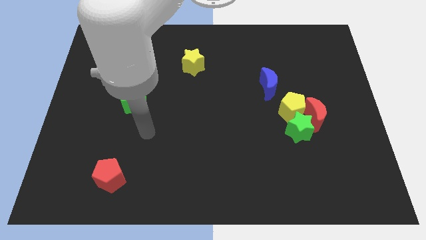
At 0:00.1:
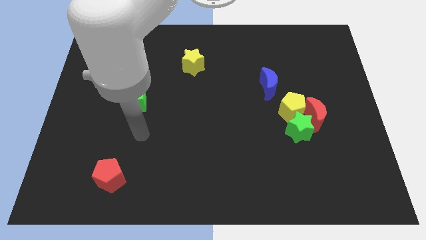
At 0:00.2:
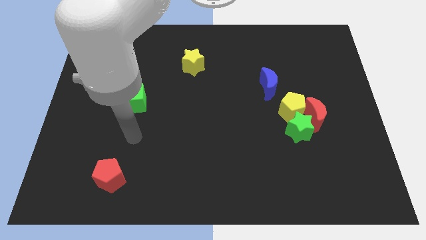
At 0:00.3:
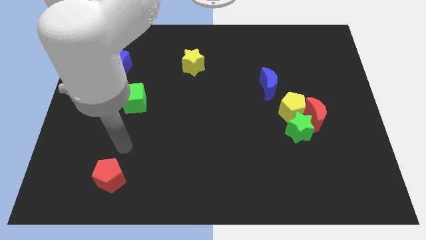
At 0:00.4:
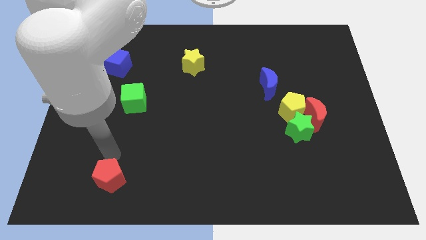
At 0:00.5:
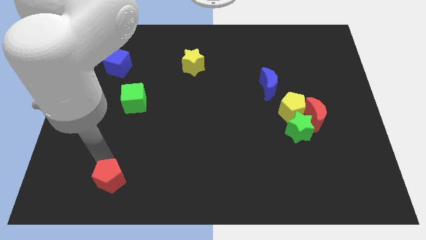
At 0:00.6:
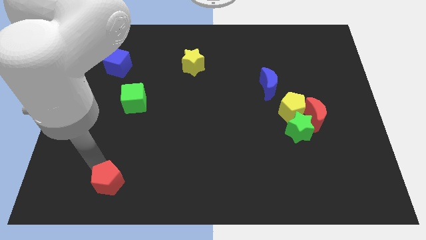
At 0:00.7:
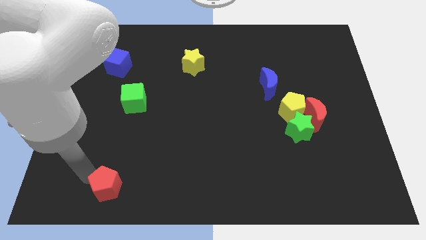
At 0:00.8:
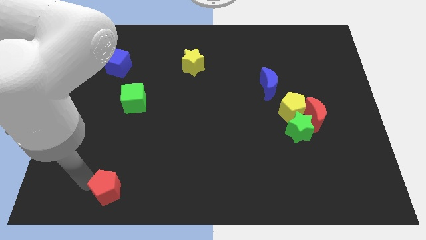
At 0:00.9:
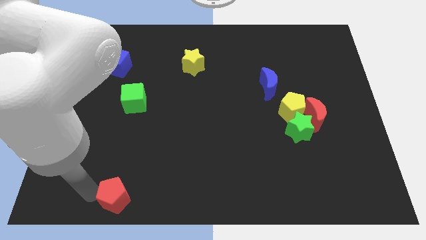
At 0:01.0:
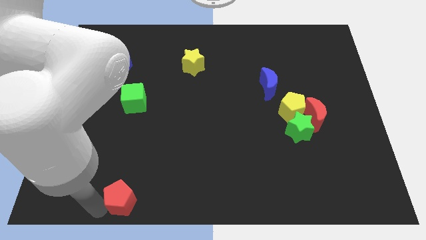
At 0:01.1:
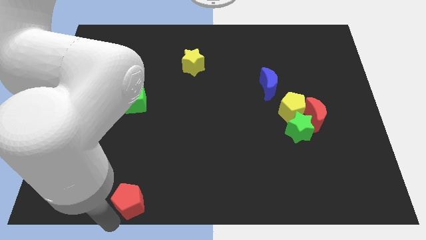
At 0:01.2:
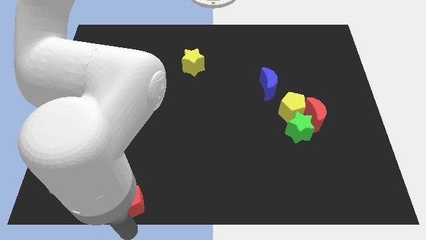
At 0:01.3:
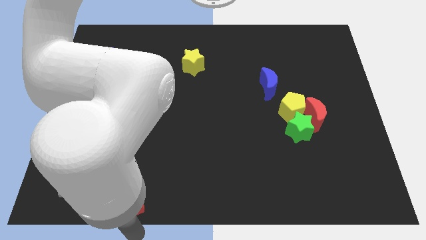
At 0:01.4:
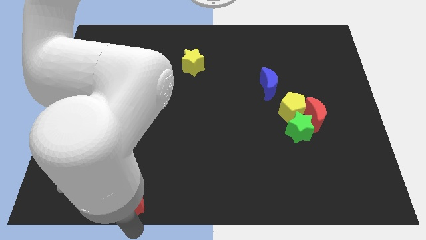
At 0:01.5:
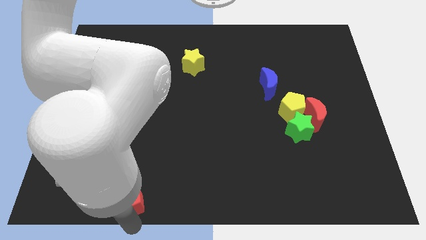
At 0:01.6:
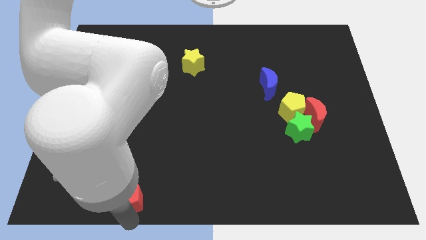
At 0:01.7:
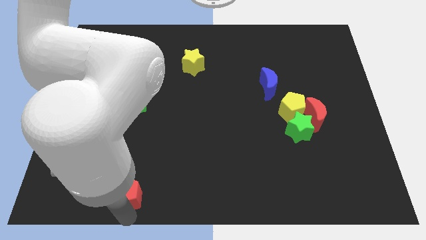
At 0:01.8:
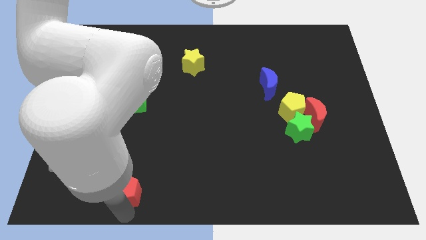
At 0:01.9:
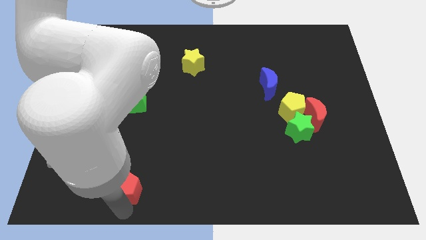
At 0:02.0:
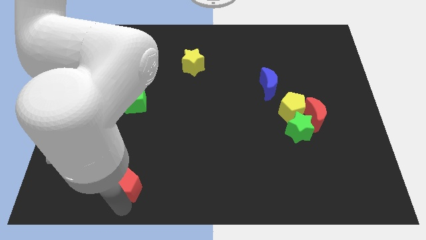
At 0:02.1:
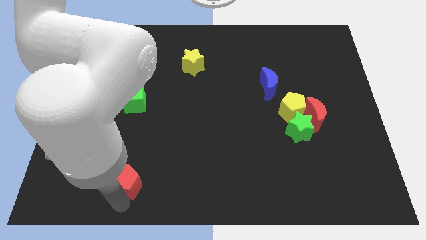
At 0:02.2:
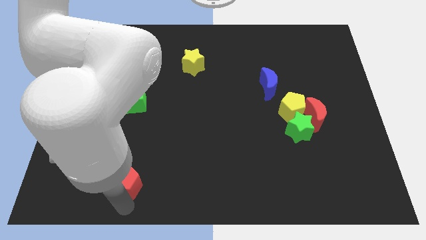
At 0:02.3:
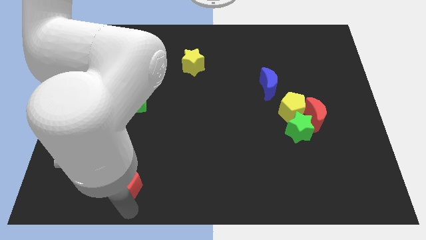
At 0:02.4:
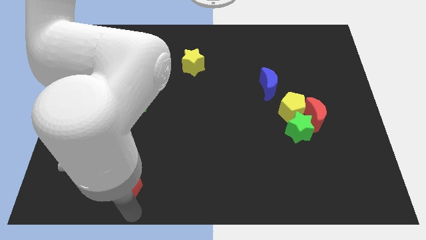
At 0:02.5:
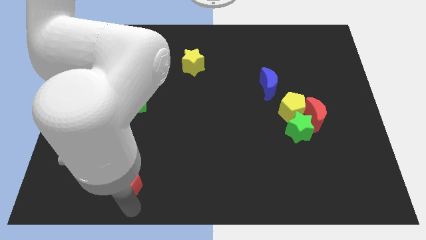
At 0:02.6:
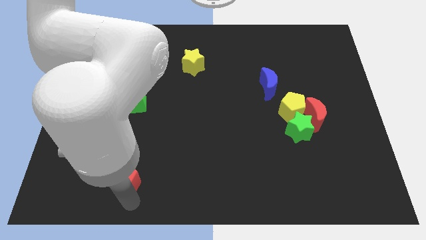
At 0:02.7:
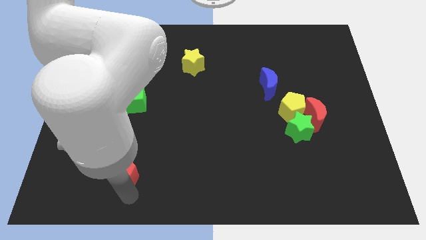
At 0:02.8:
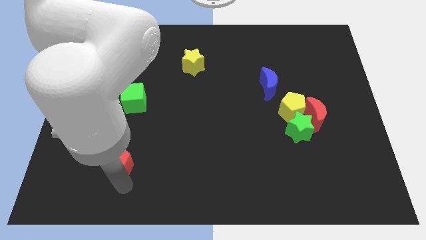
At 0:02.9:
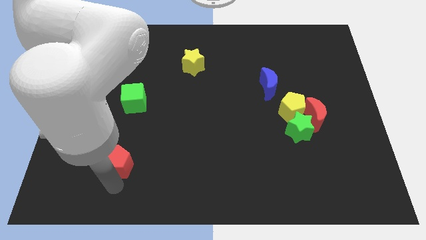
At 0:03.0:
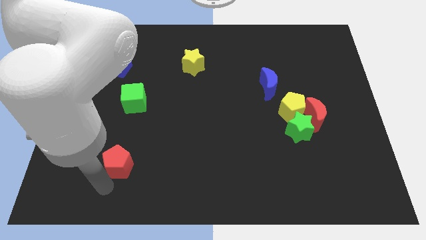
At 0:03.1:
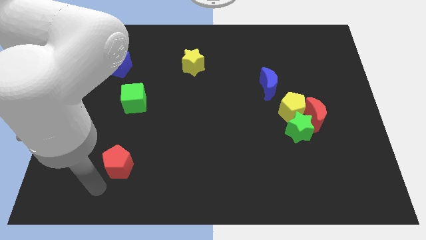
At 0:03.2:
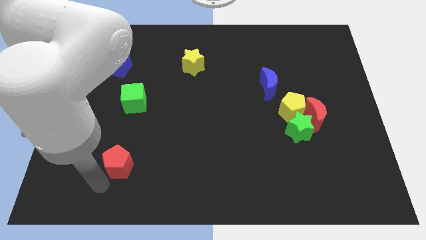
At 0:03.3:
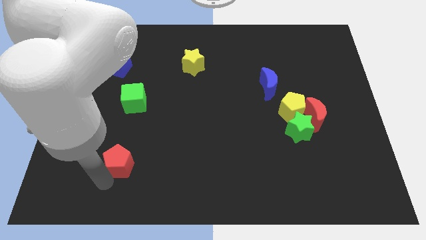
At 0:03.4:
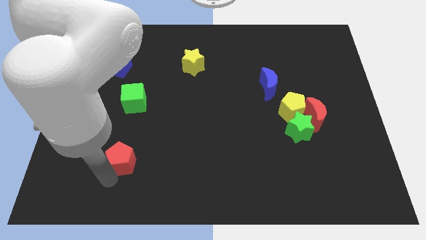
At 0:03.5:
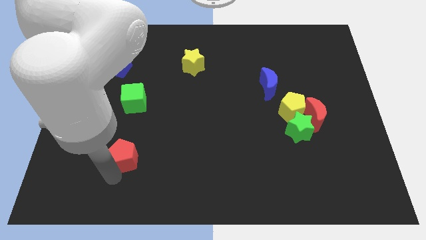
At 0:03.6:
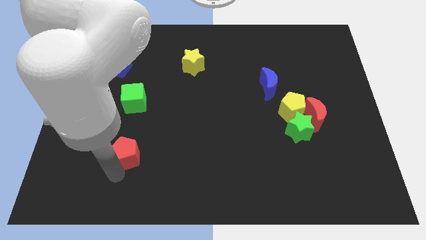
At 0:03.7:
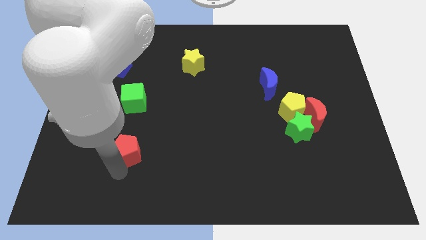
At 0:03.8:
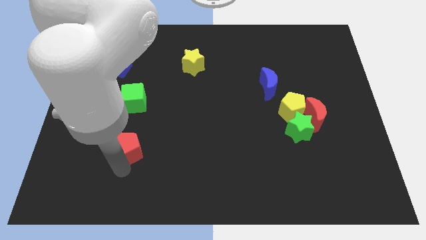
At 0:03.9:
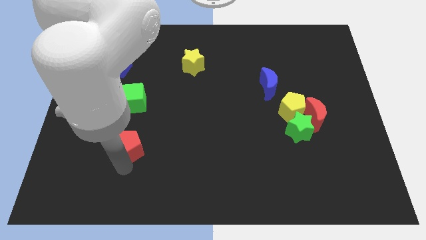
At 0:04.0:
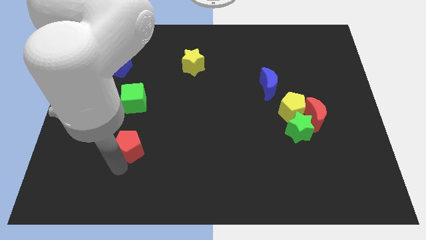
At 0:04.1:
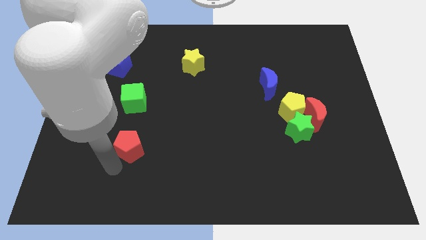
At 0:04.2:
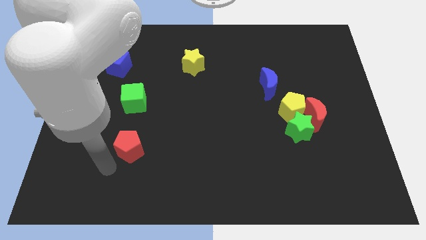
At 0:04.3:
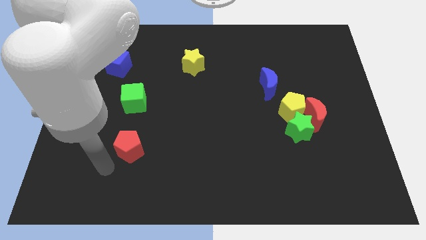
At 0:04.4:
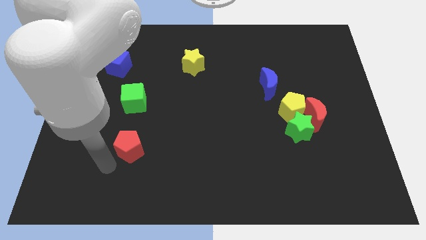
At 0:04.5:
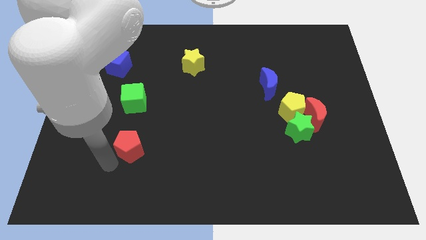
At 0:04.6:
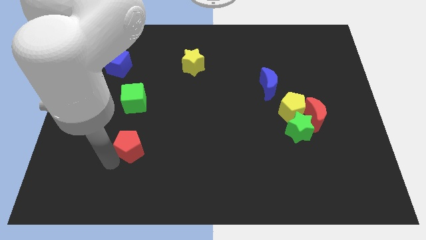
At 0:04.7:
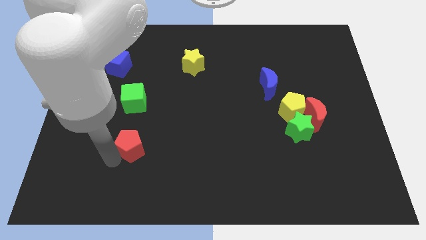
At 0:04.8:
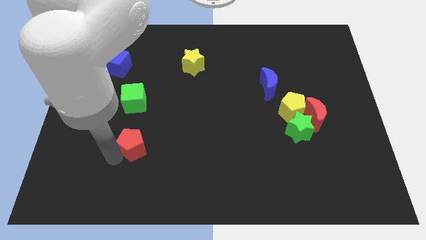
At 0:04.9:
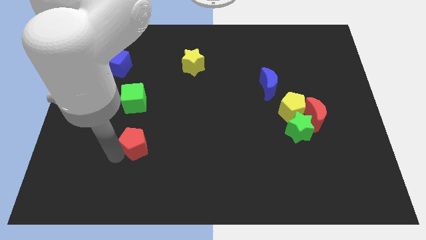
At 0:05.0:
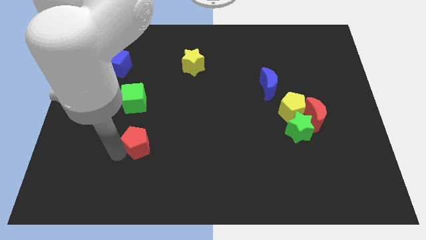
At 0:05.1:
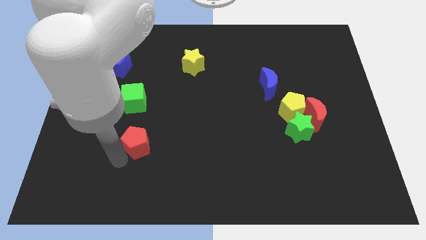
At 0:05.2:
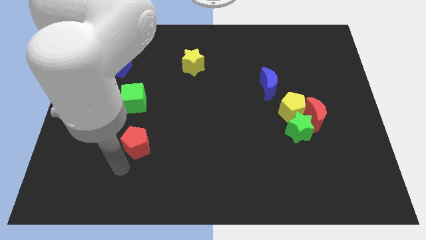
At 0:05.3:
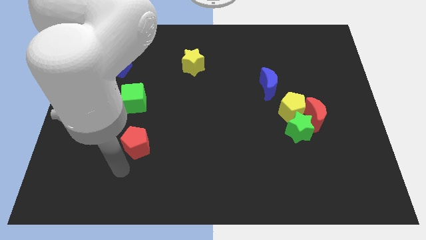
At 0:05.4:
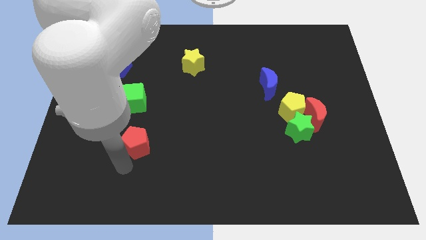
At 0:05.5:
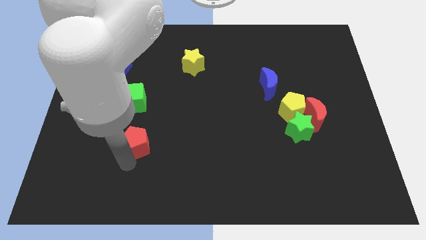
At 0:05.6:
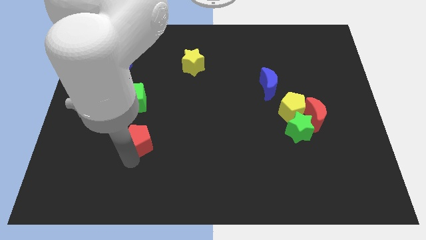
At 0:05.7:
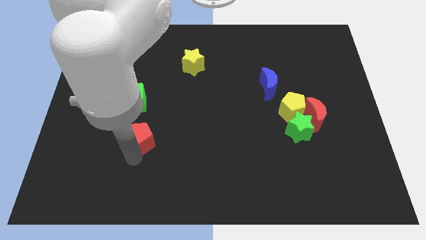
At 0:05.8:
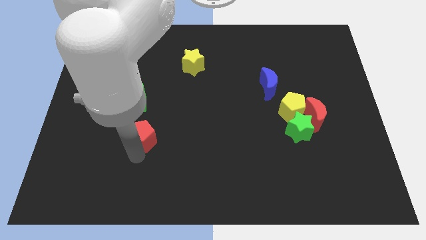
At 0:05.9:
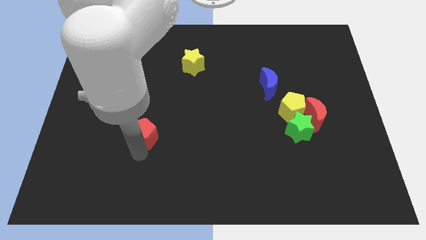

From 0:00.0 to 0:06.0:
move the red pentagon to the bottom right of the green cube

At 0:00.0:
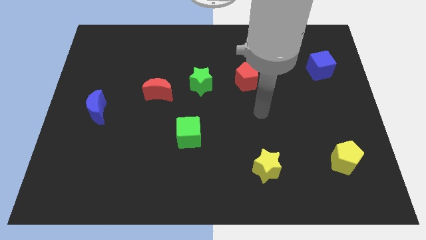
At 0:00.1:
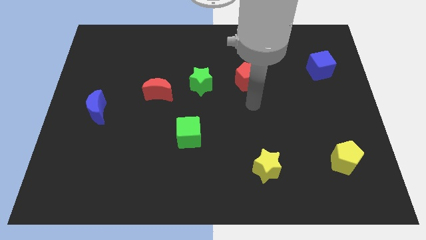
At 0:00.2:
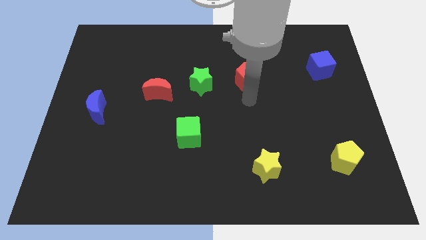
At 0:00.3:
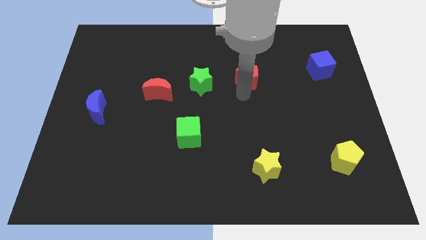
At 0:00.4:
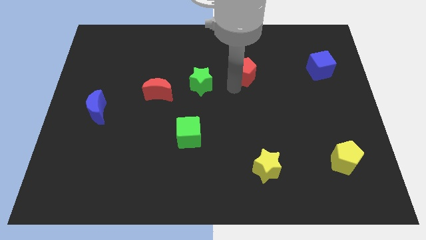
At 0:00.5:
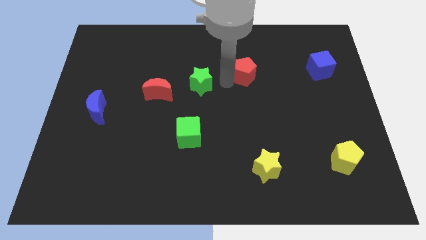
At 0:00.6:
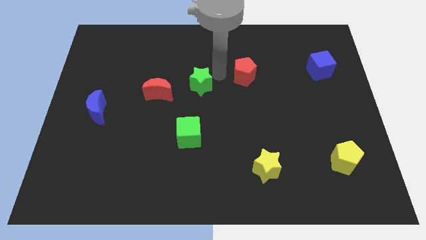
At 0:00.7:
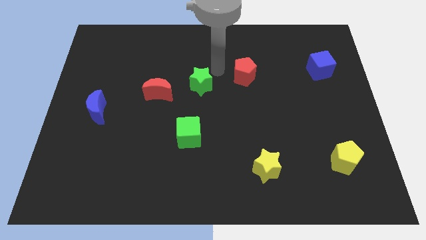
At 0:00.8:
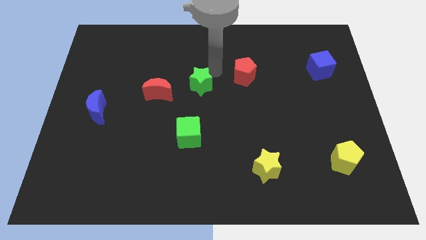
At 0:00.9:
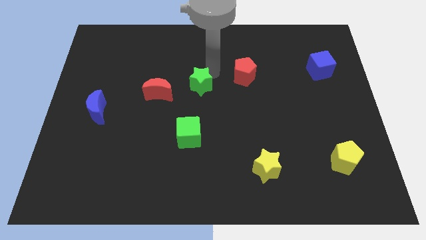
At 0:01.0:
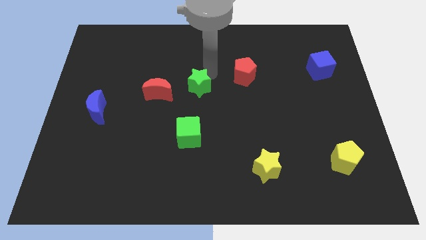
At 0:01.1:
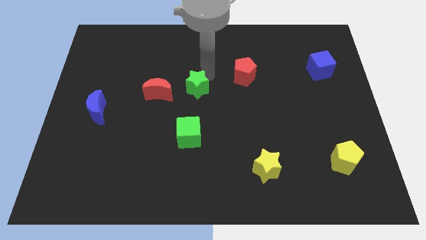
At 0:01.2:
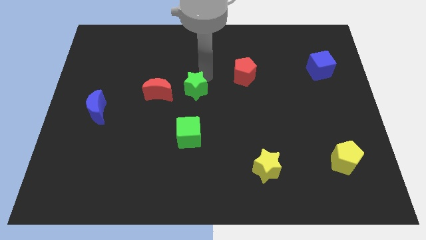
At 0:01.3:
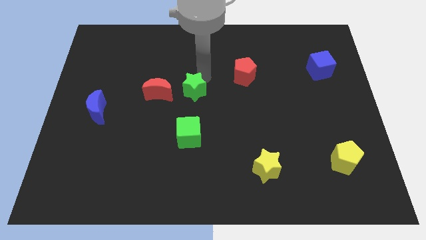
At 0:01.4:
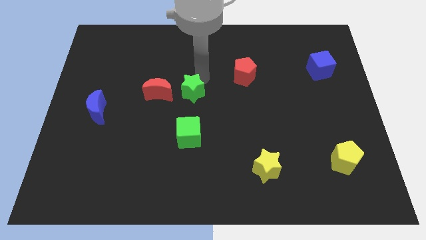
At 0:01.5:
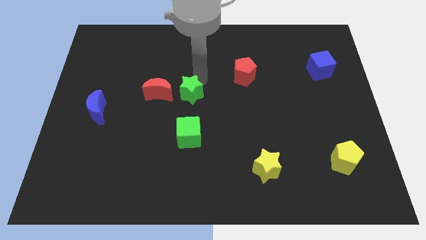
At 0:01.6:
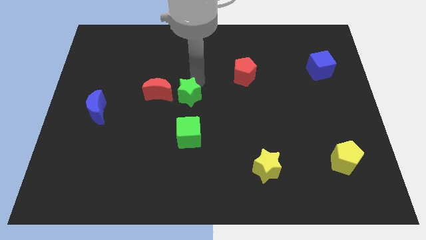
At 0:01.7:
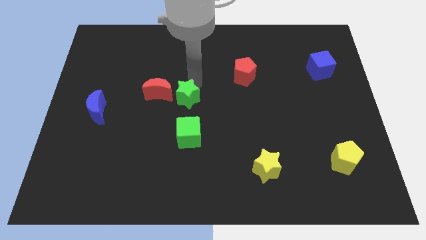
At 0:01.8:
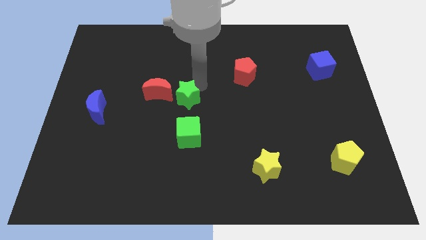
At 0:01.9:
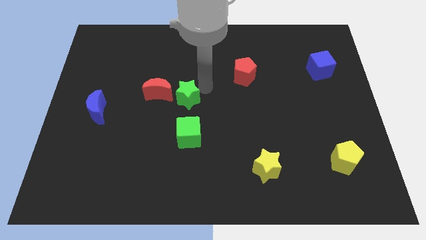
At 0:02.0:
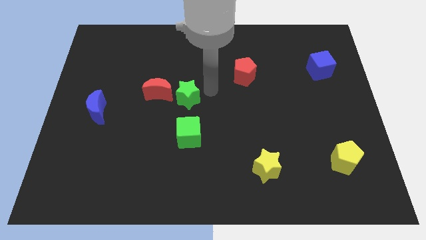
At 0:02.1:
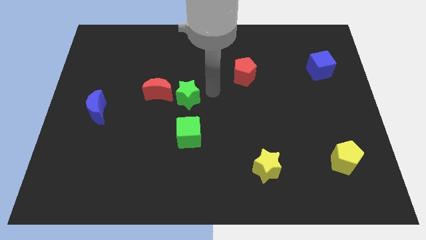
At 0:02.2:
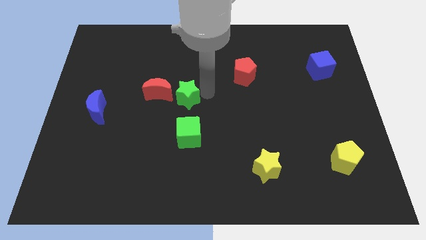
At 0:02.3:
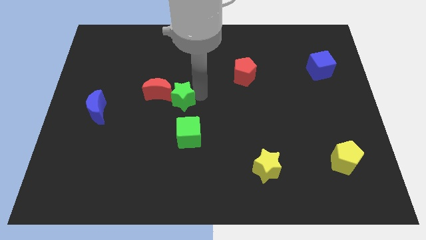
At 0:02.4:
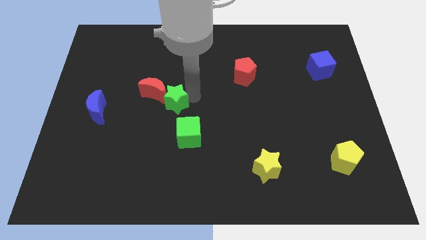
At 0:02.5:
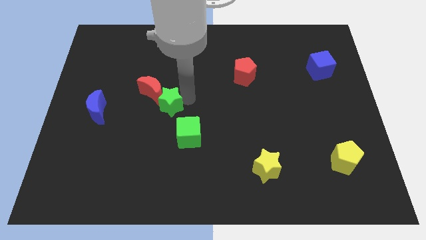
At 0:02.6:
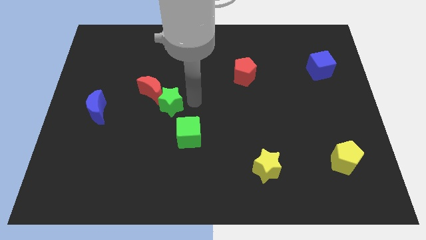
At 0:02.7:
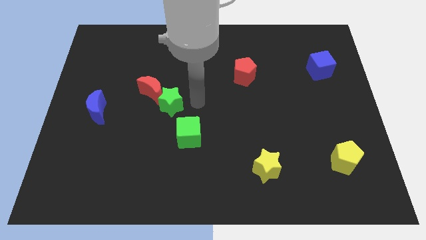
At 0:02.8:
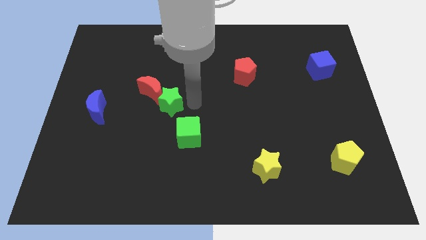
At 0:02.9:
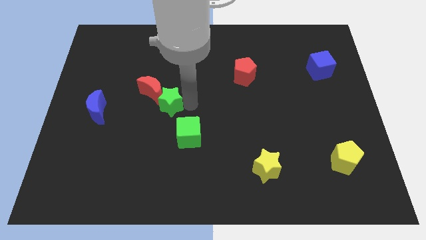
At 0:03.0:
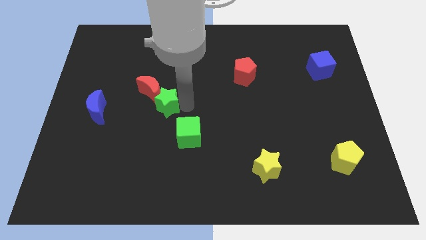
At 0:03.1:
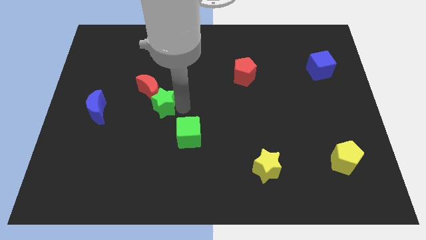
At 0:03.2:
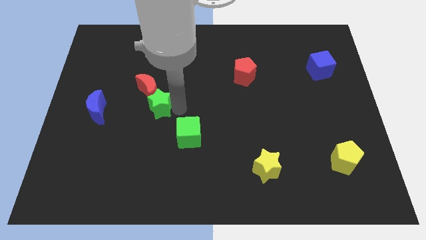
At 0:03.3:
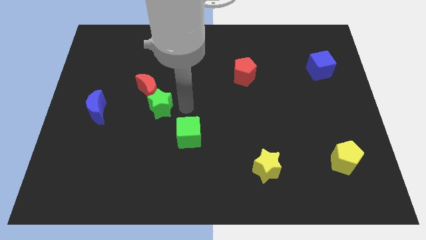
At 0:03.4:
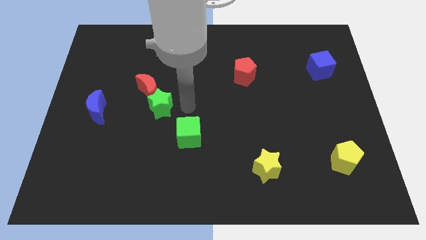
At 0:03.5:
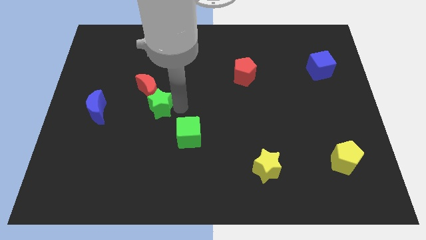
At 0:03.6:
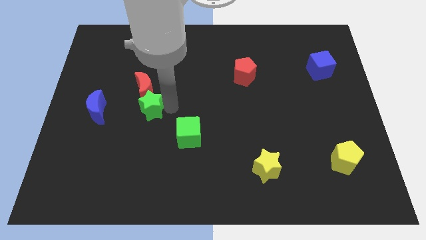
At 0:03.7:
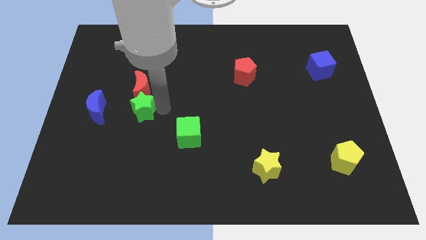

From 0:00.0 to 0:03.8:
put the green star to the bottom left side of the red moon
